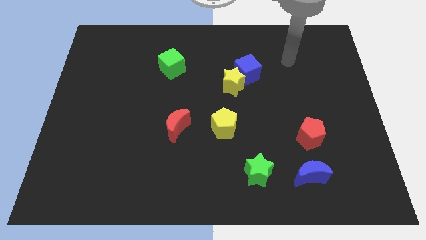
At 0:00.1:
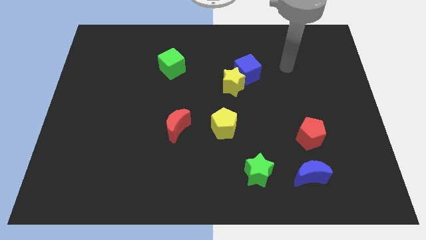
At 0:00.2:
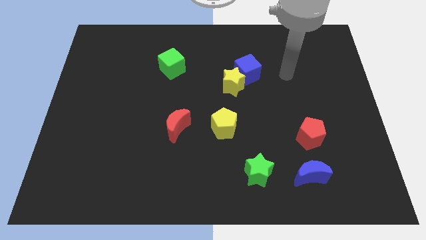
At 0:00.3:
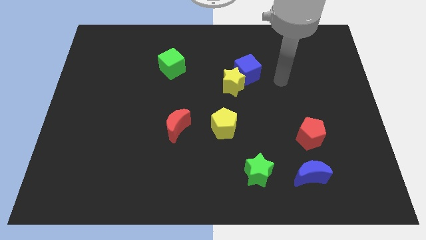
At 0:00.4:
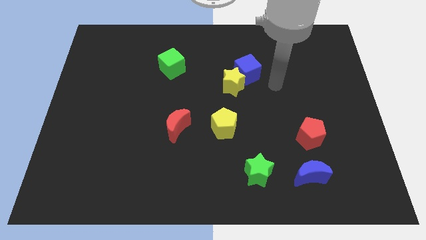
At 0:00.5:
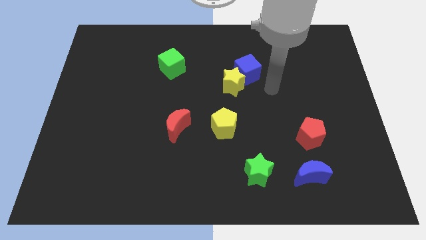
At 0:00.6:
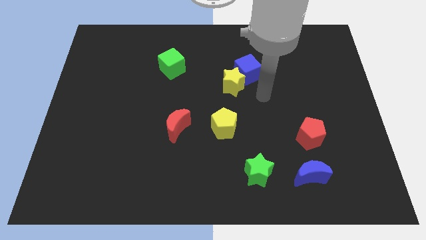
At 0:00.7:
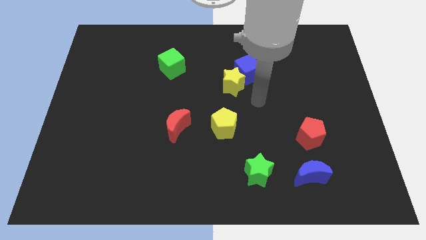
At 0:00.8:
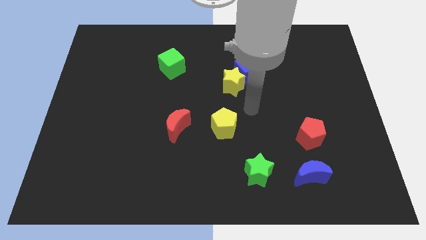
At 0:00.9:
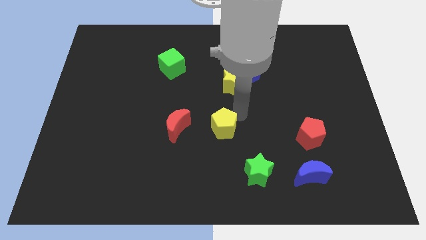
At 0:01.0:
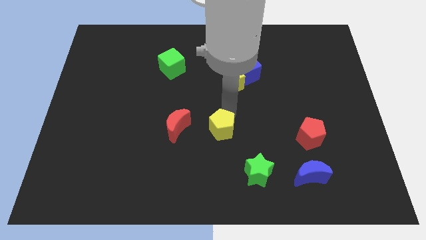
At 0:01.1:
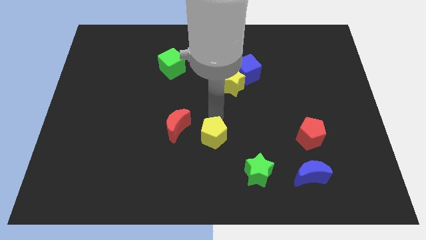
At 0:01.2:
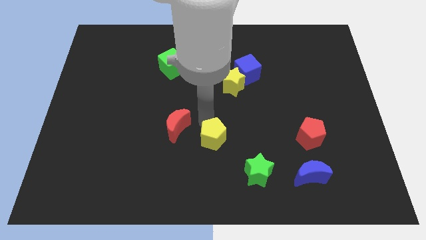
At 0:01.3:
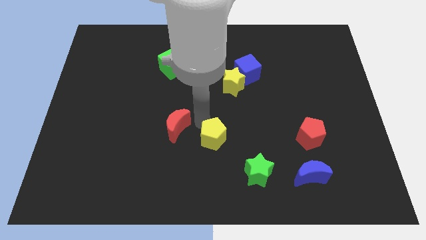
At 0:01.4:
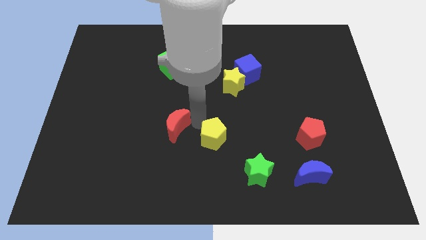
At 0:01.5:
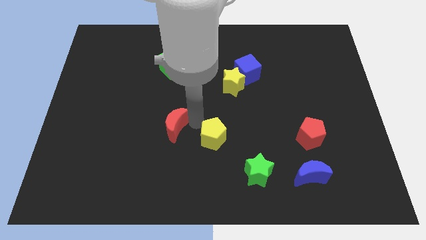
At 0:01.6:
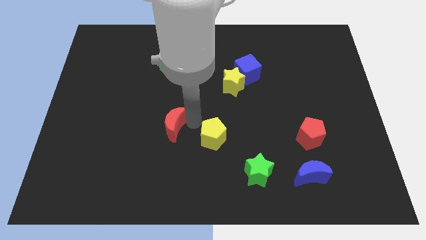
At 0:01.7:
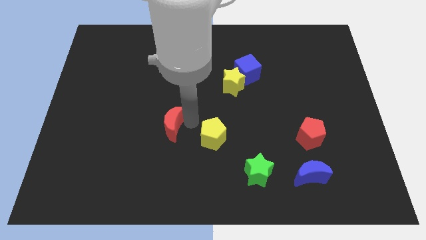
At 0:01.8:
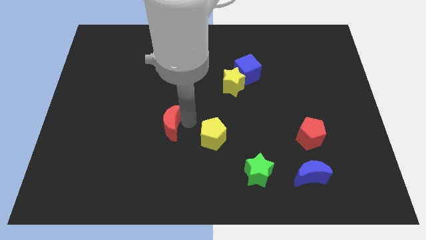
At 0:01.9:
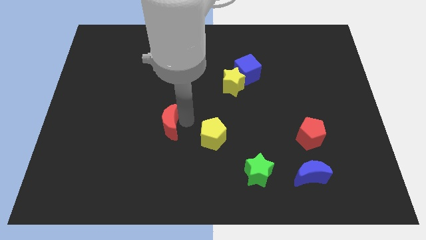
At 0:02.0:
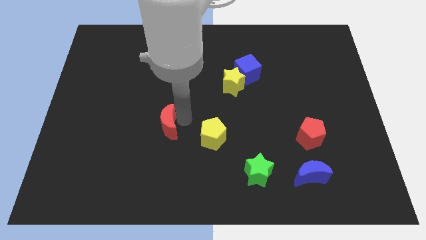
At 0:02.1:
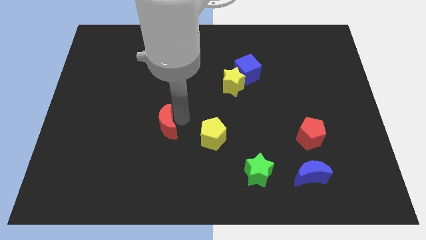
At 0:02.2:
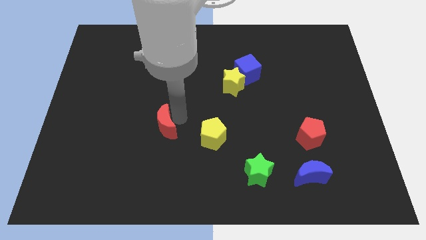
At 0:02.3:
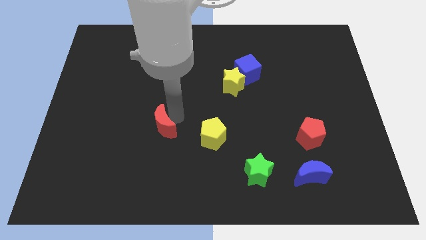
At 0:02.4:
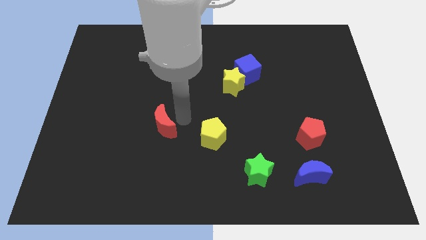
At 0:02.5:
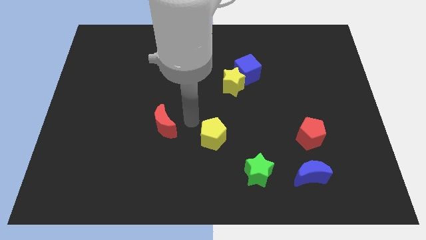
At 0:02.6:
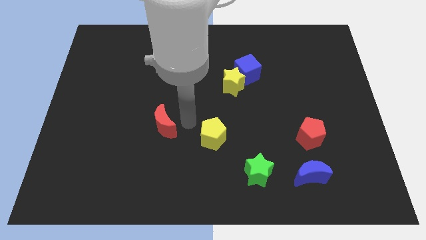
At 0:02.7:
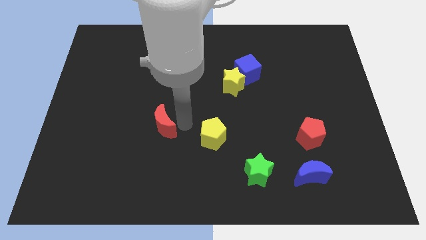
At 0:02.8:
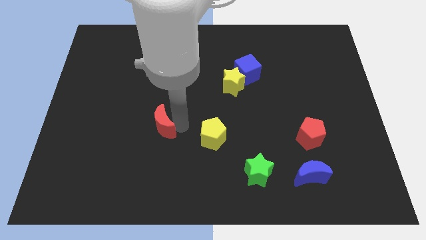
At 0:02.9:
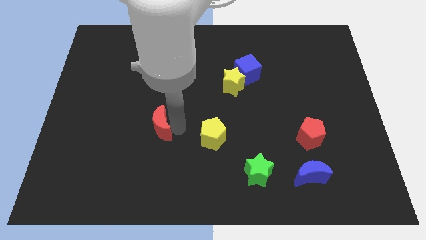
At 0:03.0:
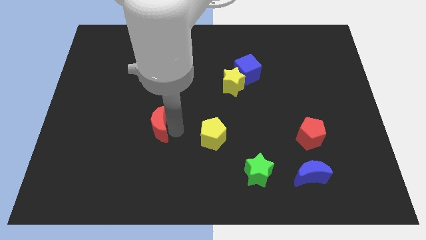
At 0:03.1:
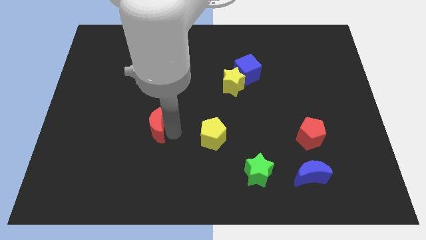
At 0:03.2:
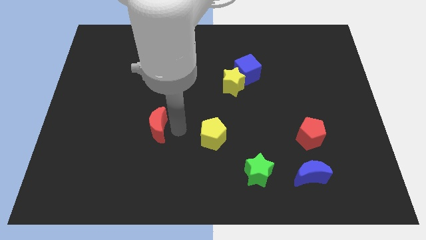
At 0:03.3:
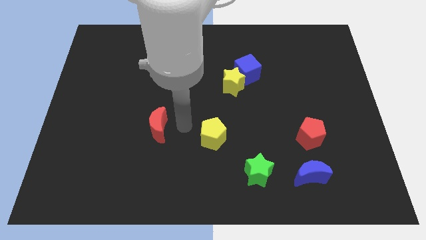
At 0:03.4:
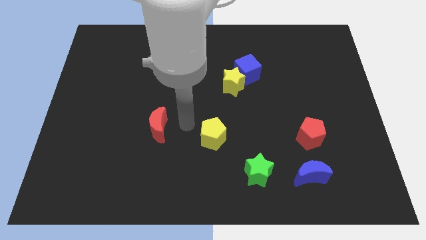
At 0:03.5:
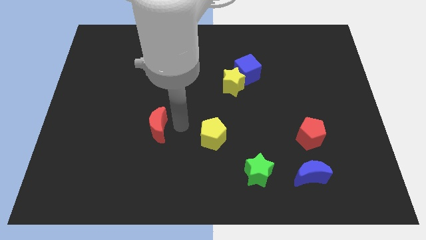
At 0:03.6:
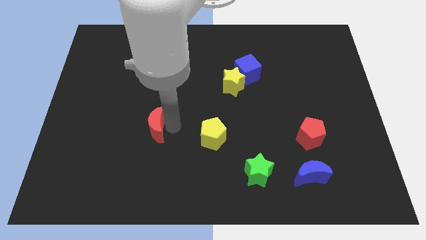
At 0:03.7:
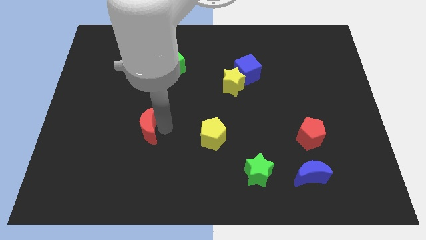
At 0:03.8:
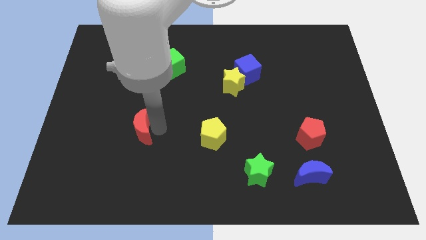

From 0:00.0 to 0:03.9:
move the red moon somewhat left

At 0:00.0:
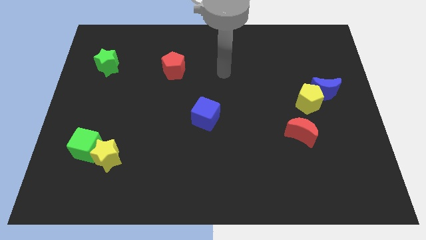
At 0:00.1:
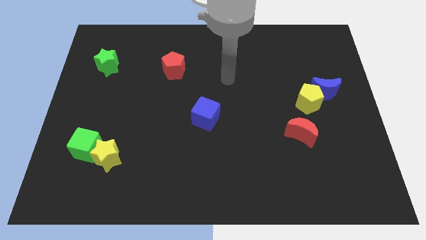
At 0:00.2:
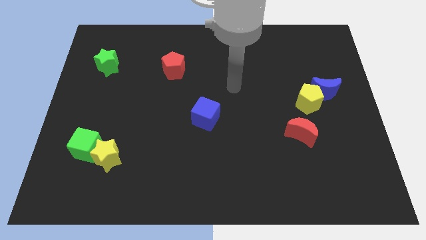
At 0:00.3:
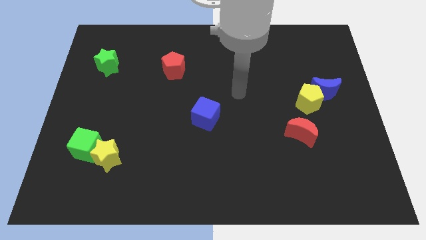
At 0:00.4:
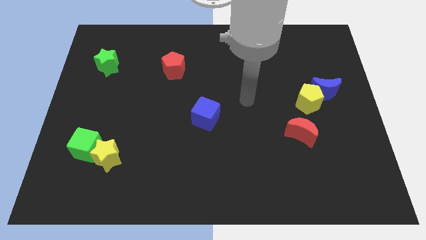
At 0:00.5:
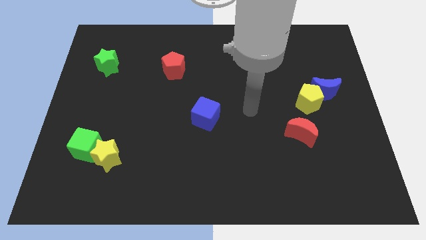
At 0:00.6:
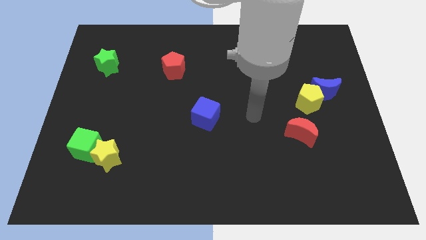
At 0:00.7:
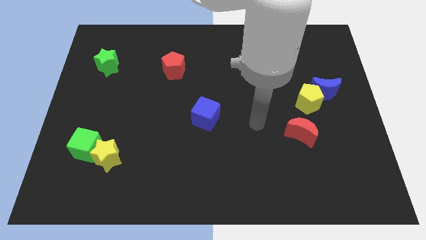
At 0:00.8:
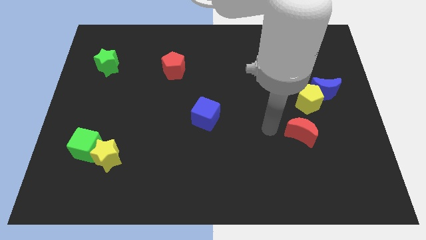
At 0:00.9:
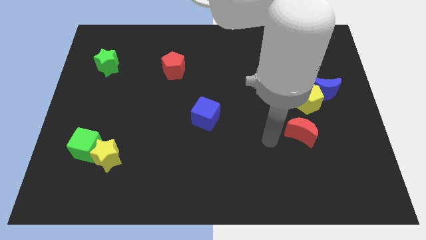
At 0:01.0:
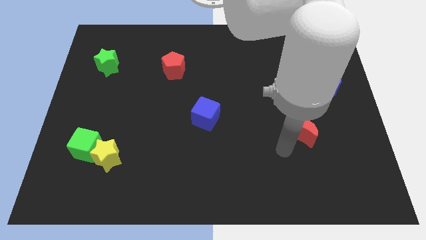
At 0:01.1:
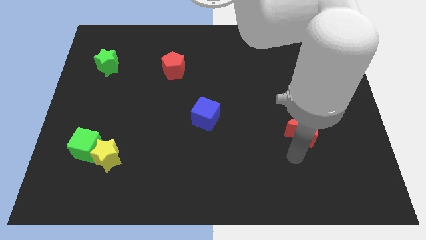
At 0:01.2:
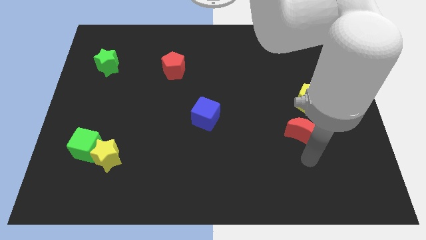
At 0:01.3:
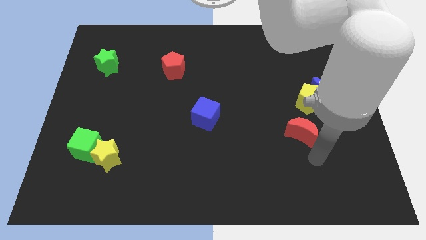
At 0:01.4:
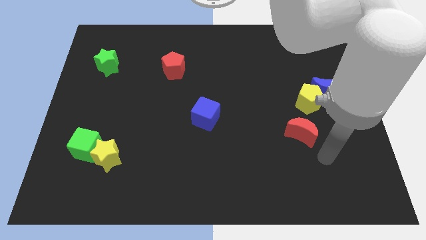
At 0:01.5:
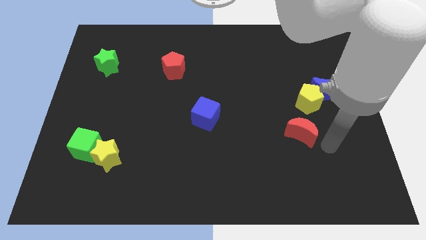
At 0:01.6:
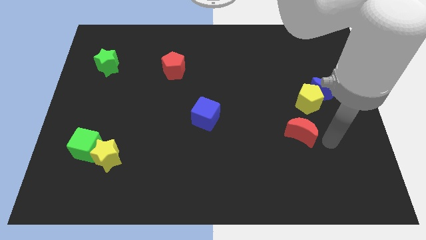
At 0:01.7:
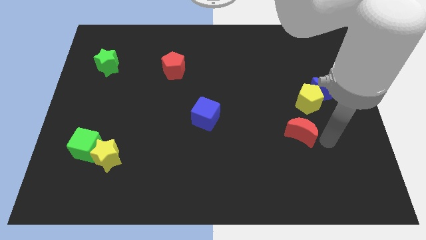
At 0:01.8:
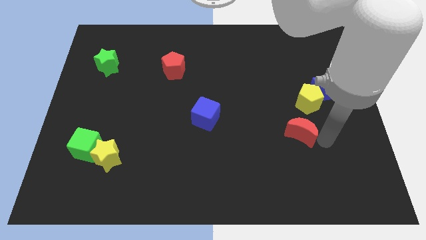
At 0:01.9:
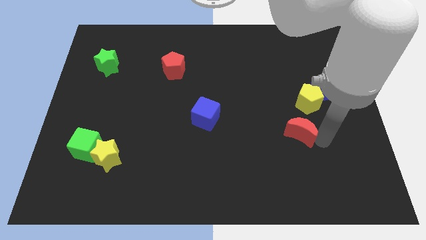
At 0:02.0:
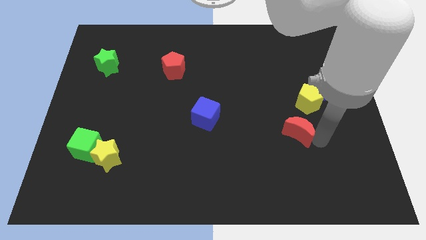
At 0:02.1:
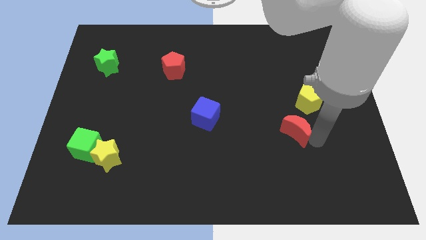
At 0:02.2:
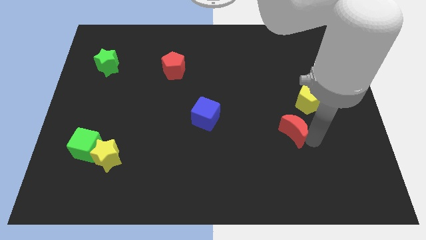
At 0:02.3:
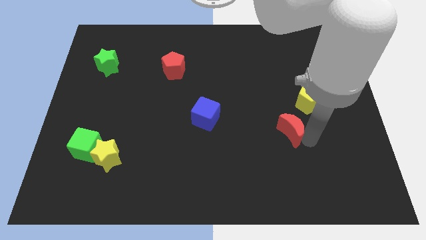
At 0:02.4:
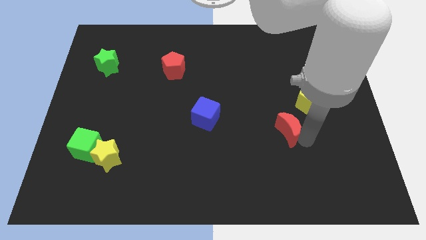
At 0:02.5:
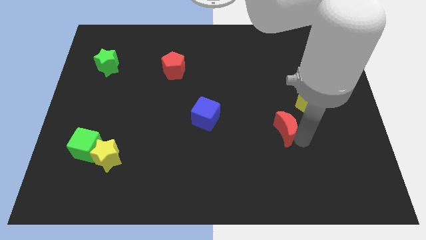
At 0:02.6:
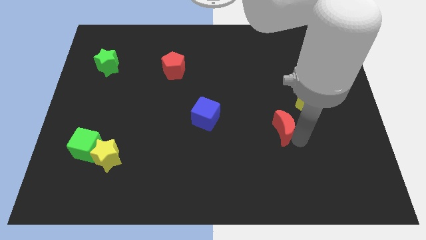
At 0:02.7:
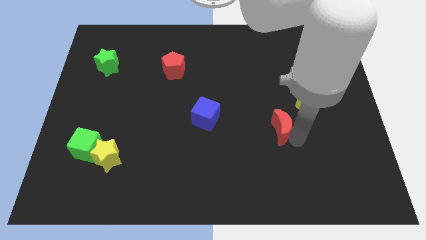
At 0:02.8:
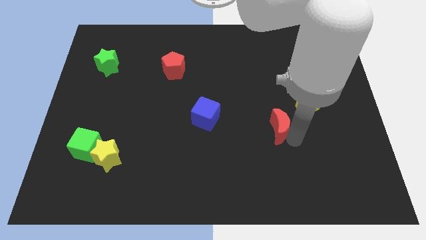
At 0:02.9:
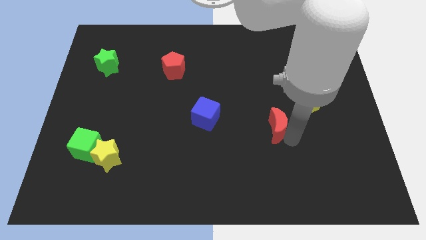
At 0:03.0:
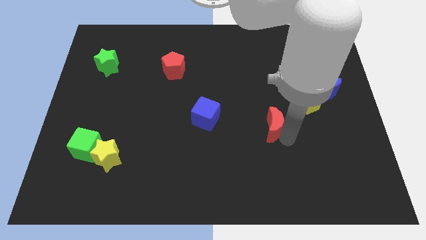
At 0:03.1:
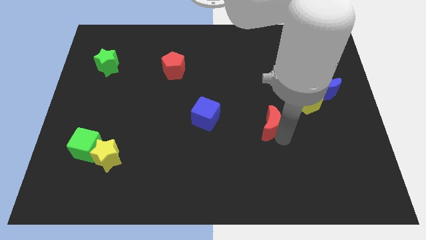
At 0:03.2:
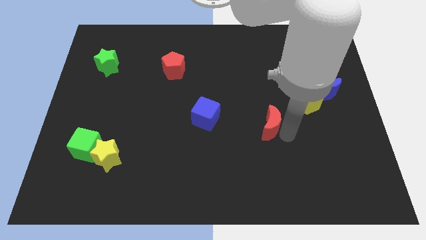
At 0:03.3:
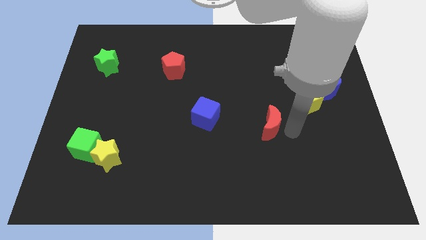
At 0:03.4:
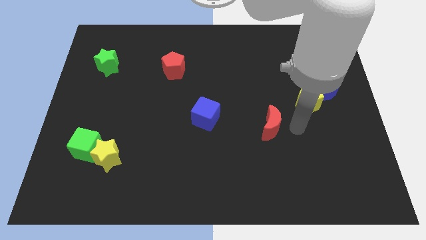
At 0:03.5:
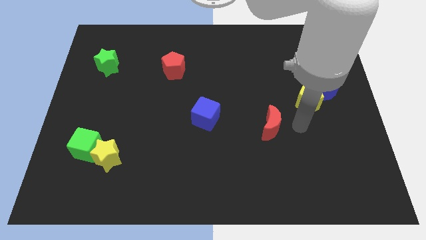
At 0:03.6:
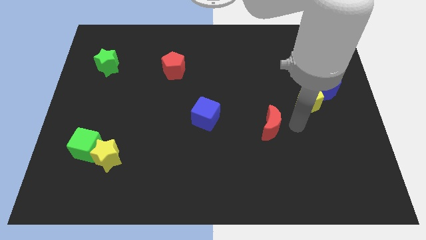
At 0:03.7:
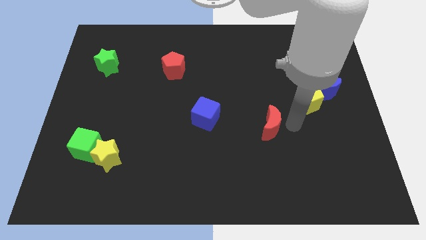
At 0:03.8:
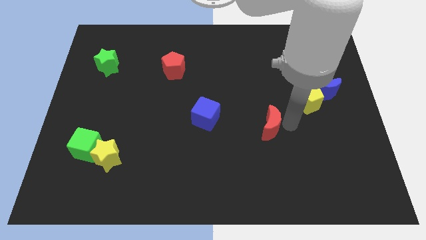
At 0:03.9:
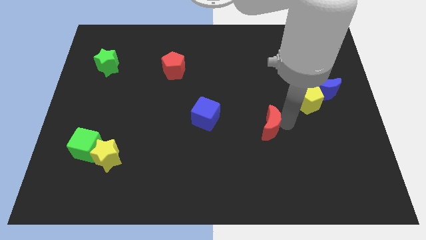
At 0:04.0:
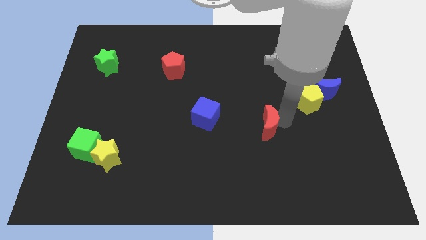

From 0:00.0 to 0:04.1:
slightly push the red moon to the left
